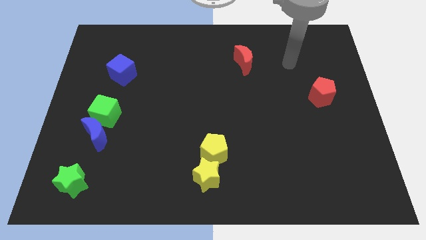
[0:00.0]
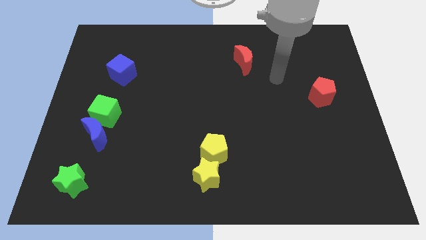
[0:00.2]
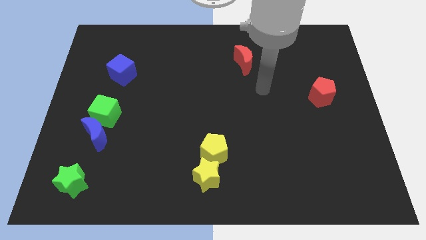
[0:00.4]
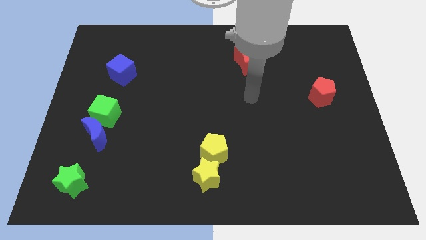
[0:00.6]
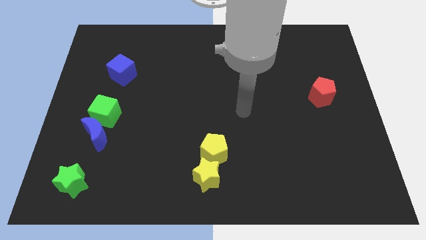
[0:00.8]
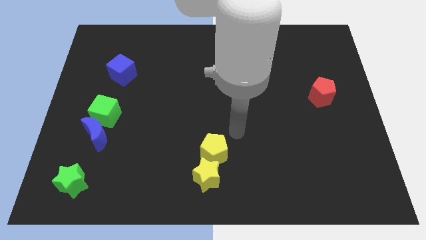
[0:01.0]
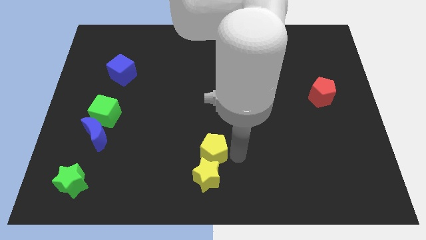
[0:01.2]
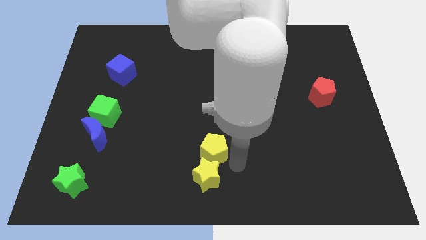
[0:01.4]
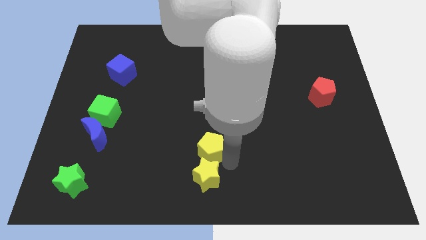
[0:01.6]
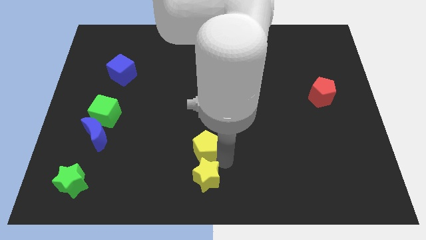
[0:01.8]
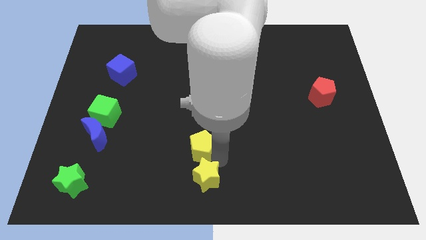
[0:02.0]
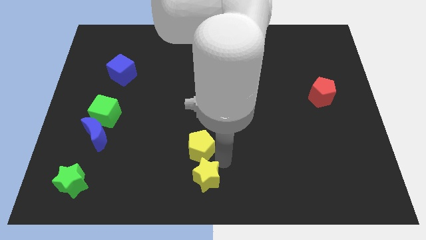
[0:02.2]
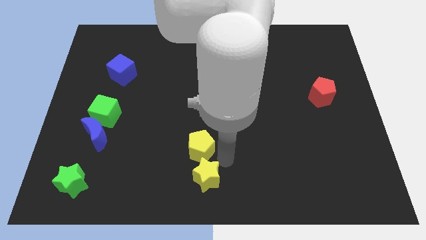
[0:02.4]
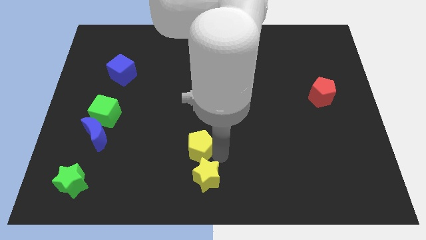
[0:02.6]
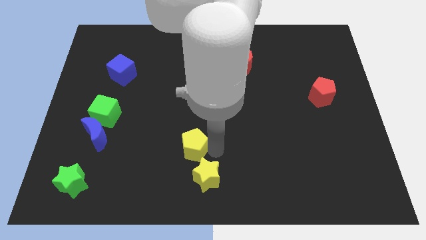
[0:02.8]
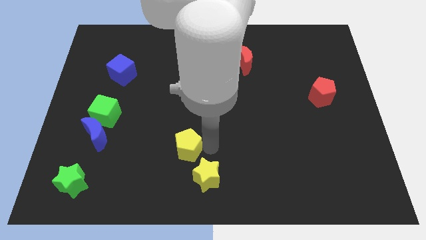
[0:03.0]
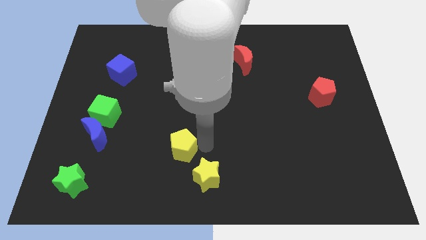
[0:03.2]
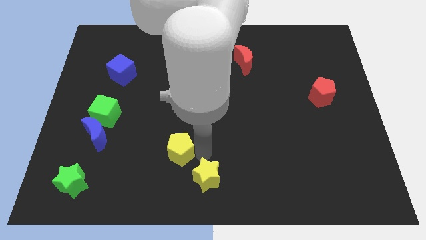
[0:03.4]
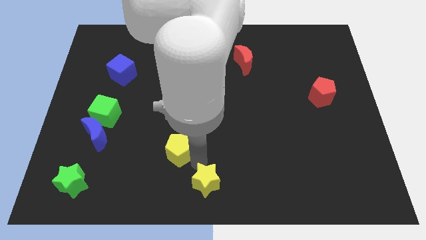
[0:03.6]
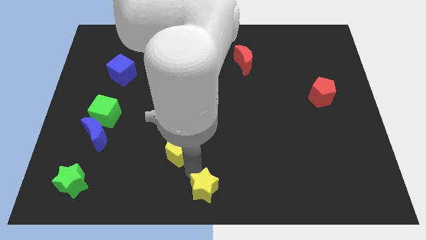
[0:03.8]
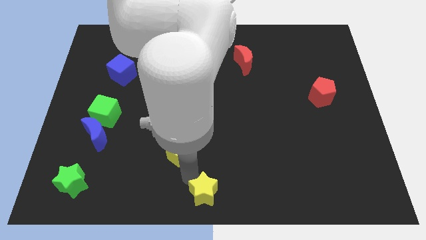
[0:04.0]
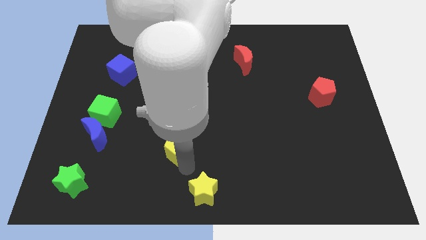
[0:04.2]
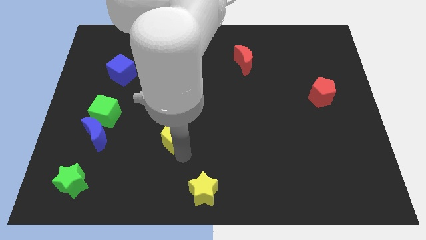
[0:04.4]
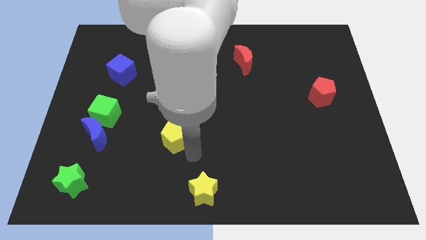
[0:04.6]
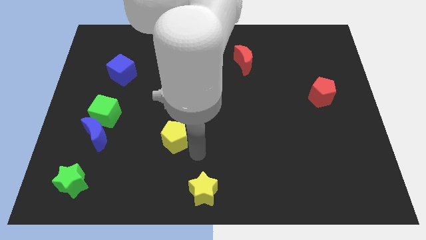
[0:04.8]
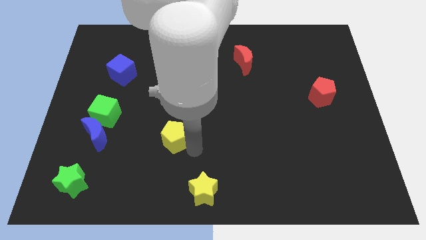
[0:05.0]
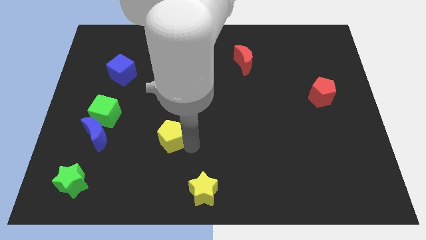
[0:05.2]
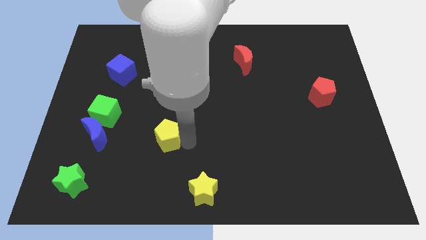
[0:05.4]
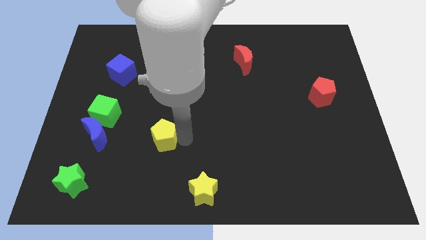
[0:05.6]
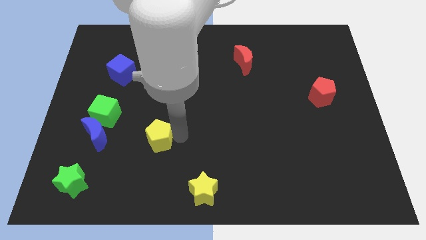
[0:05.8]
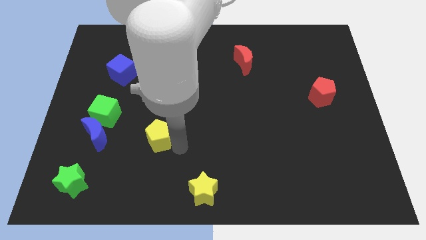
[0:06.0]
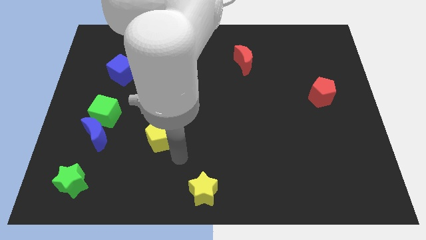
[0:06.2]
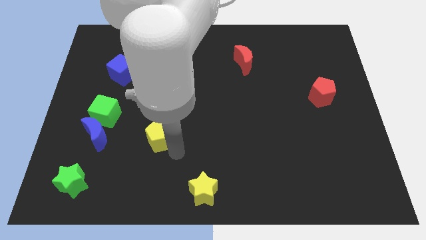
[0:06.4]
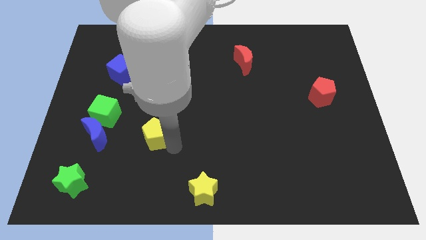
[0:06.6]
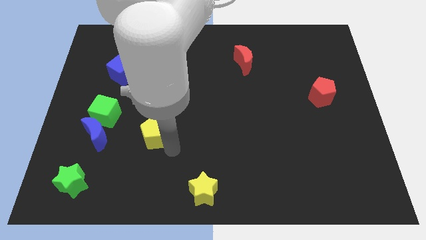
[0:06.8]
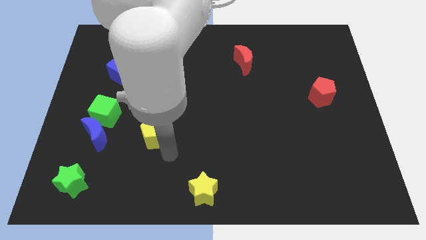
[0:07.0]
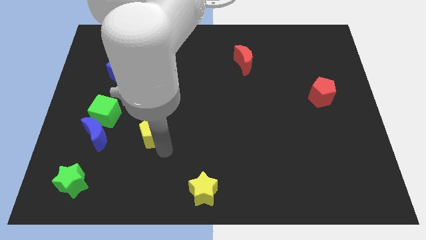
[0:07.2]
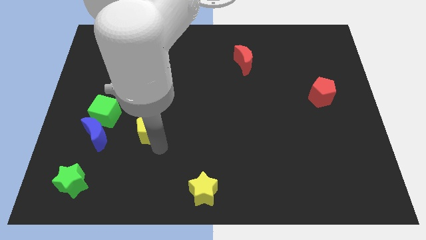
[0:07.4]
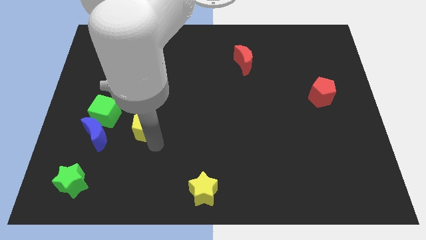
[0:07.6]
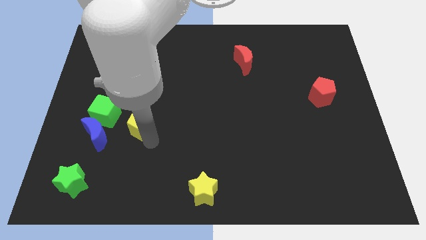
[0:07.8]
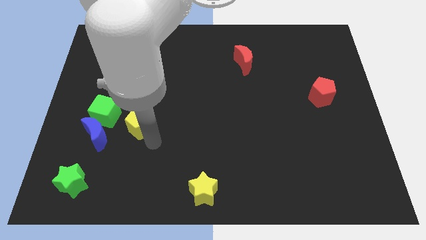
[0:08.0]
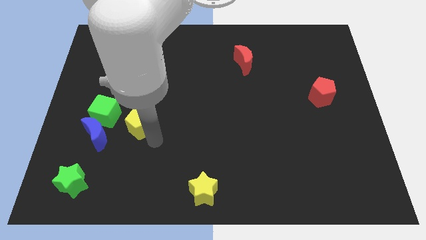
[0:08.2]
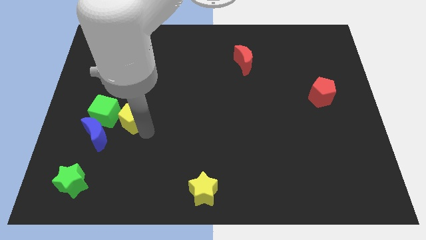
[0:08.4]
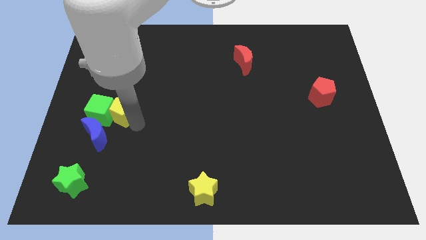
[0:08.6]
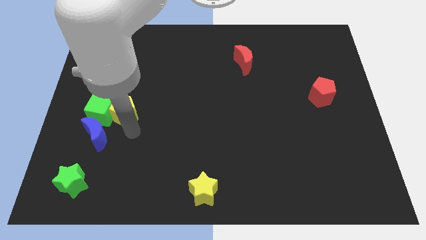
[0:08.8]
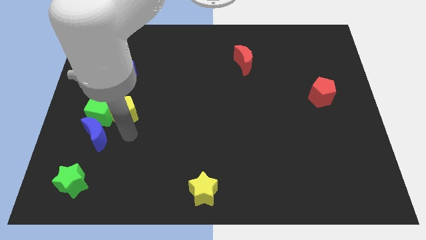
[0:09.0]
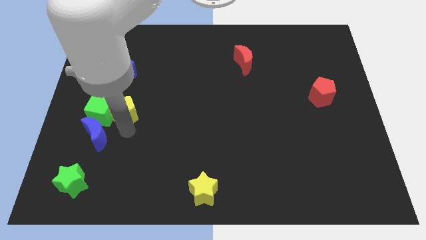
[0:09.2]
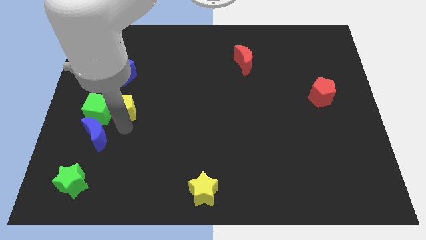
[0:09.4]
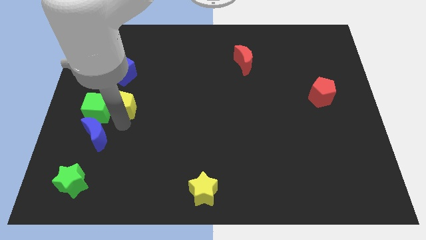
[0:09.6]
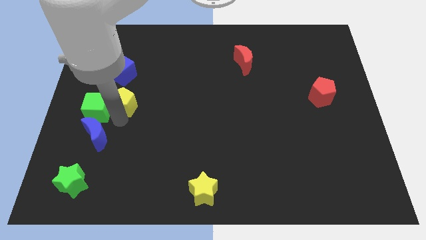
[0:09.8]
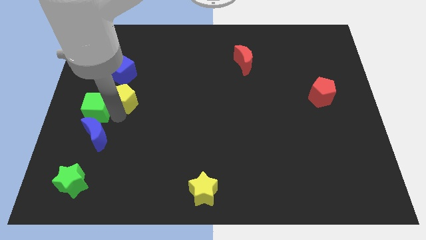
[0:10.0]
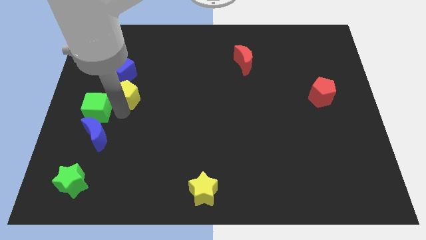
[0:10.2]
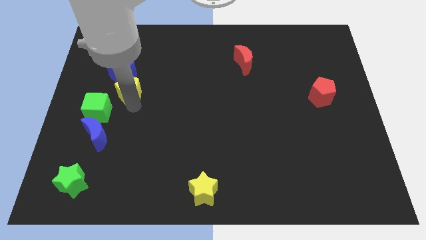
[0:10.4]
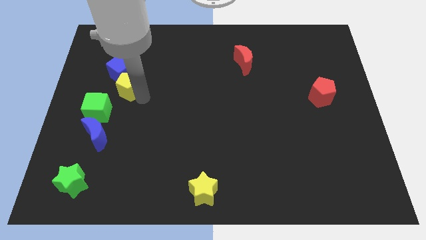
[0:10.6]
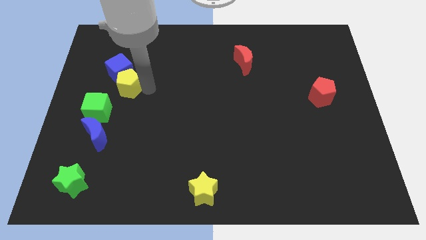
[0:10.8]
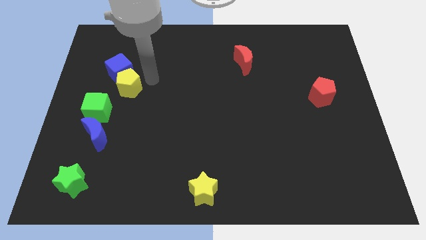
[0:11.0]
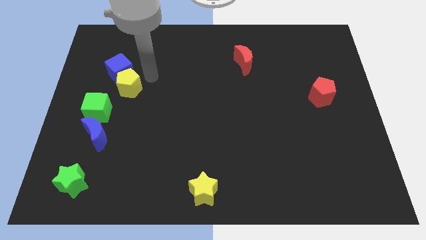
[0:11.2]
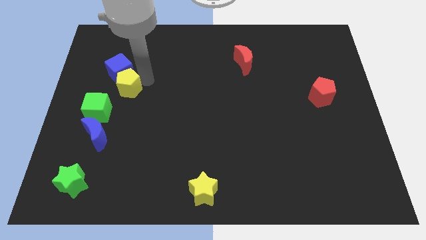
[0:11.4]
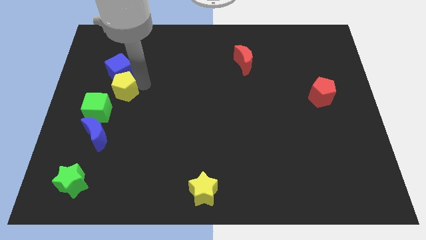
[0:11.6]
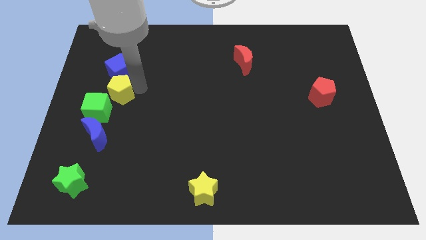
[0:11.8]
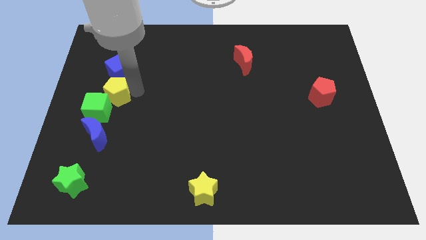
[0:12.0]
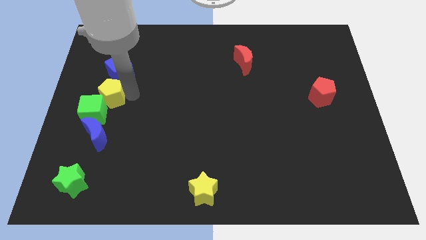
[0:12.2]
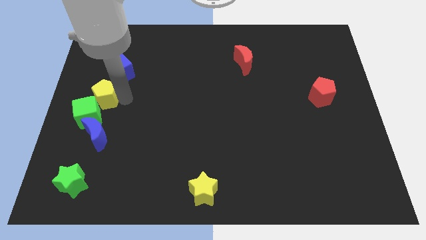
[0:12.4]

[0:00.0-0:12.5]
push the yellow pentagon to the left side of the board

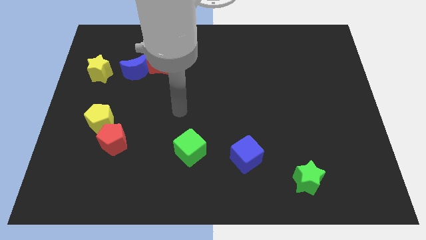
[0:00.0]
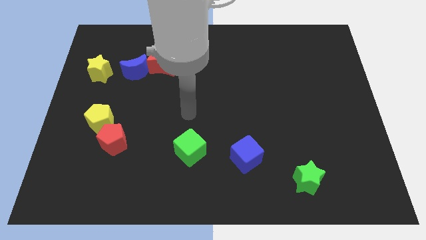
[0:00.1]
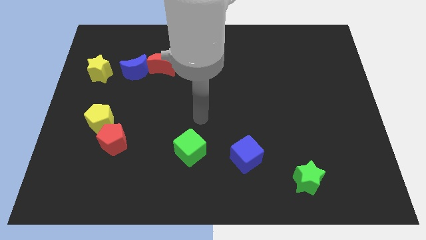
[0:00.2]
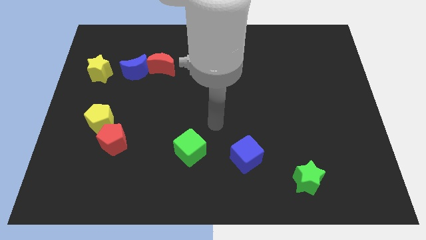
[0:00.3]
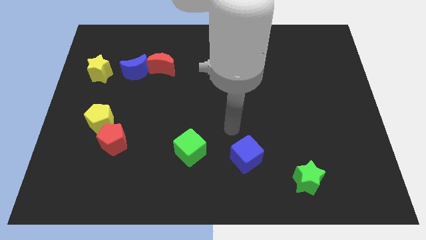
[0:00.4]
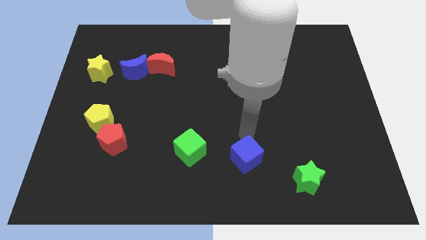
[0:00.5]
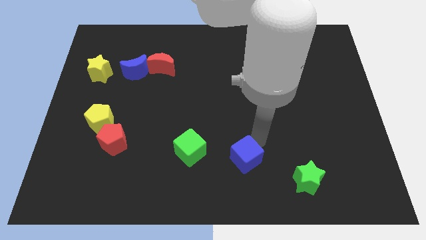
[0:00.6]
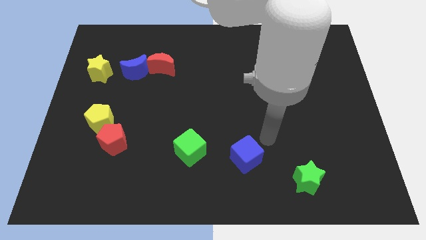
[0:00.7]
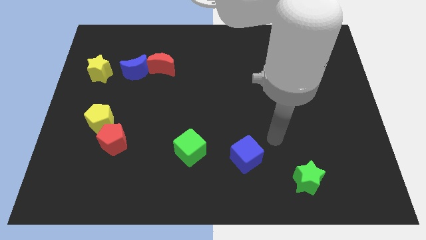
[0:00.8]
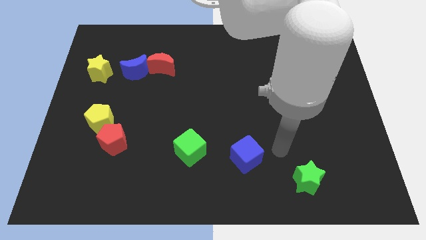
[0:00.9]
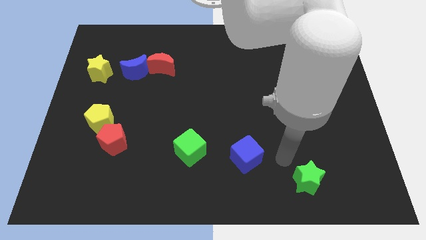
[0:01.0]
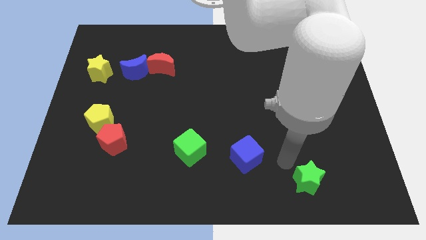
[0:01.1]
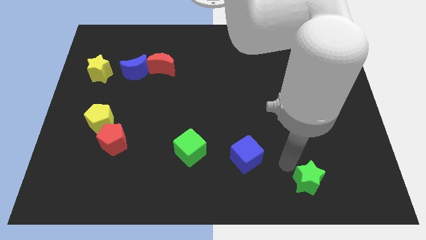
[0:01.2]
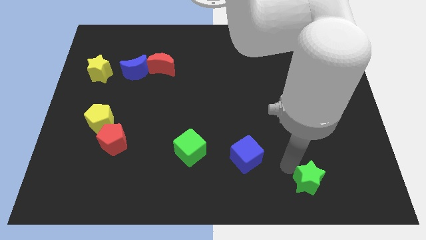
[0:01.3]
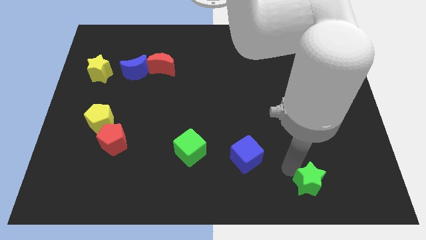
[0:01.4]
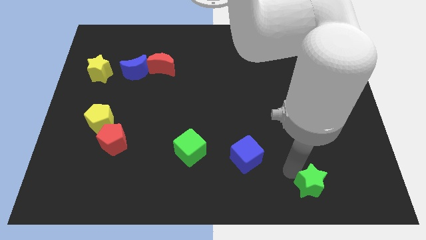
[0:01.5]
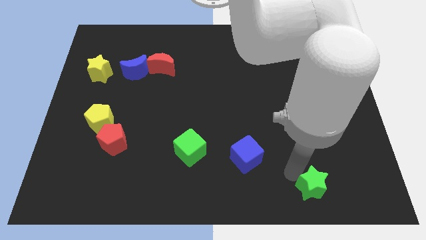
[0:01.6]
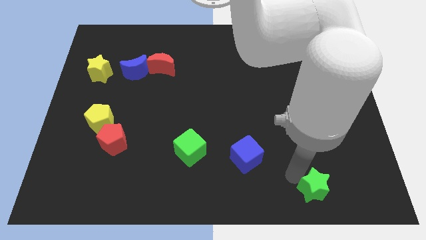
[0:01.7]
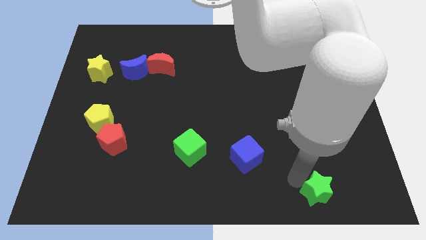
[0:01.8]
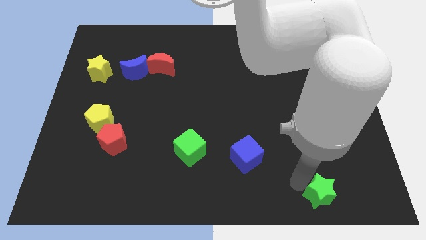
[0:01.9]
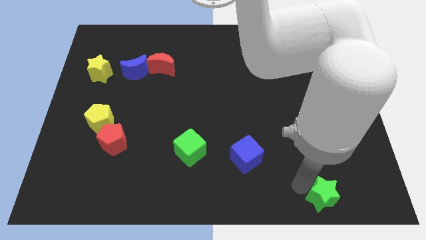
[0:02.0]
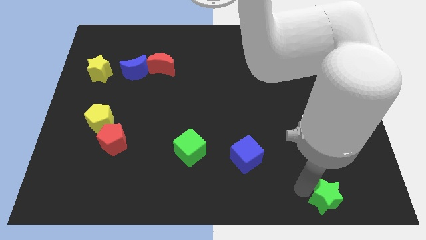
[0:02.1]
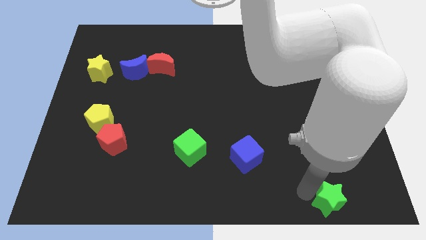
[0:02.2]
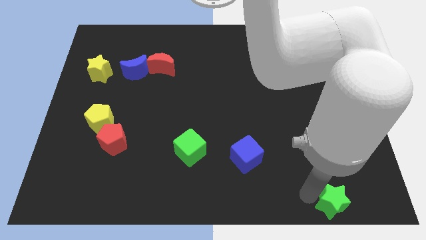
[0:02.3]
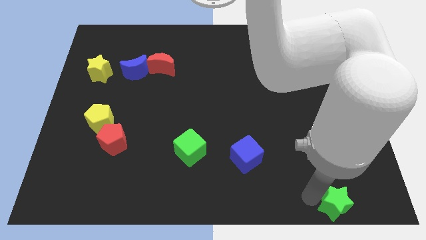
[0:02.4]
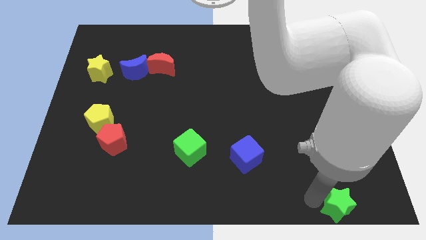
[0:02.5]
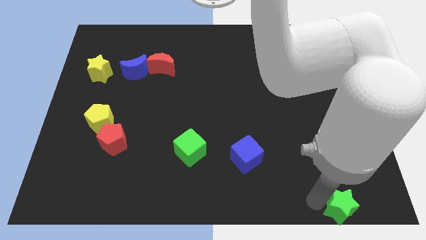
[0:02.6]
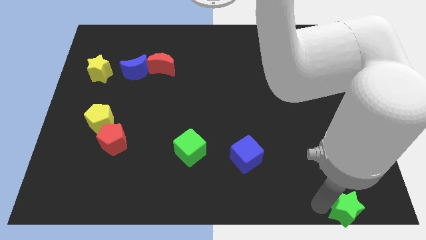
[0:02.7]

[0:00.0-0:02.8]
move the green star to the lower right corner
